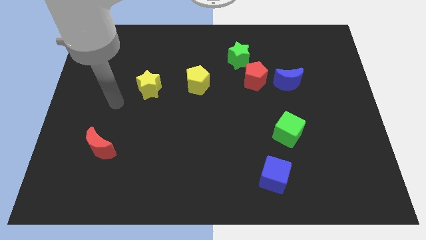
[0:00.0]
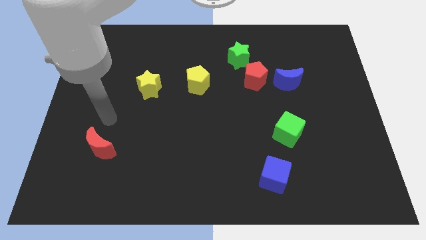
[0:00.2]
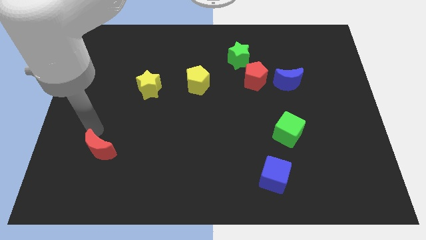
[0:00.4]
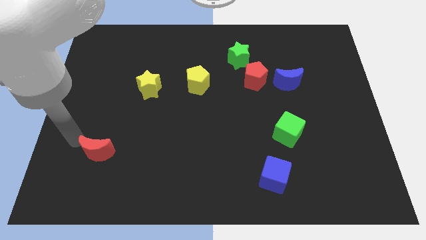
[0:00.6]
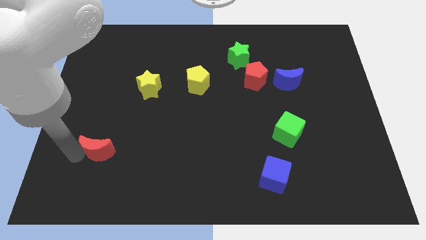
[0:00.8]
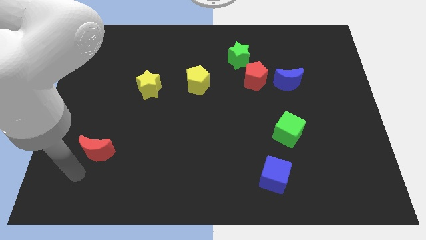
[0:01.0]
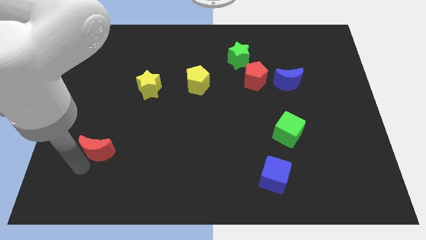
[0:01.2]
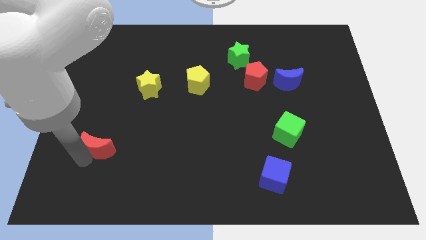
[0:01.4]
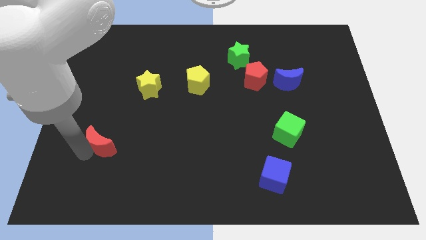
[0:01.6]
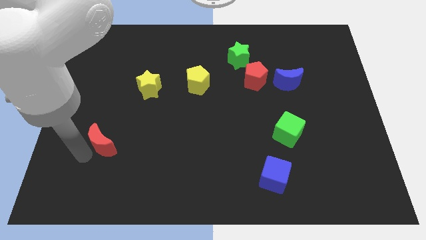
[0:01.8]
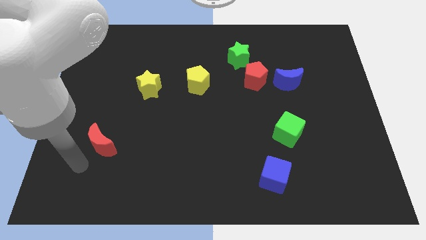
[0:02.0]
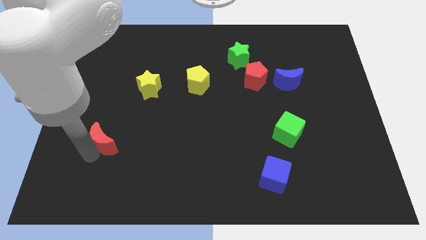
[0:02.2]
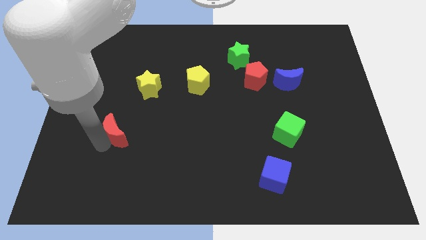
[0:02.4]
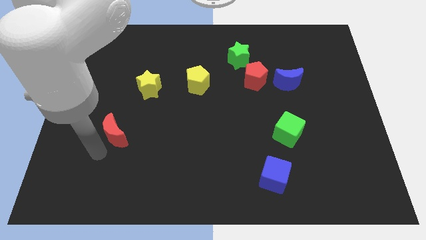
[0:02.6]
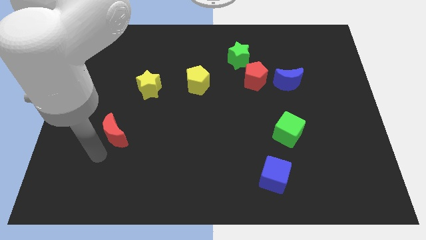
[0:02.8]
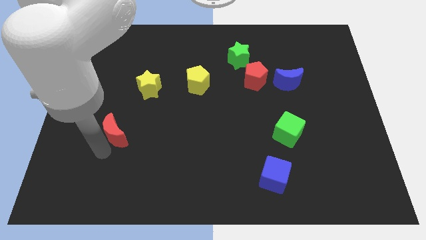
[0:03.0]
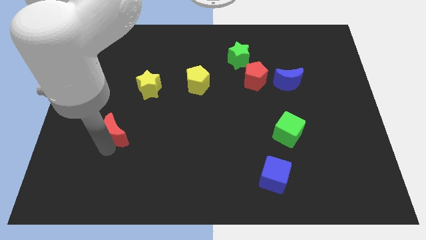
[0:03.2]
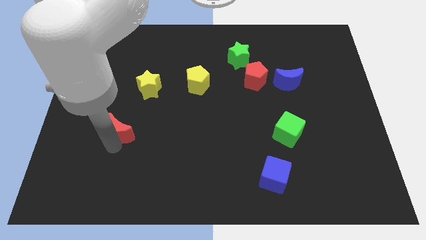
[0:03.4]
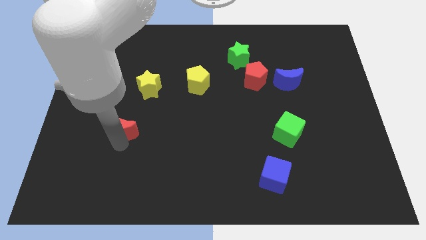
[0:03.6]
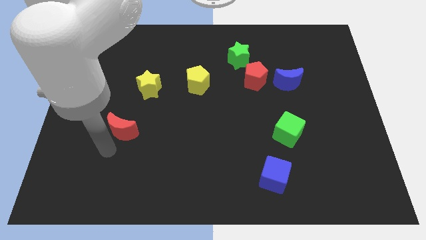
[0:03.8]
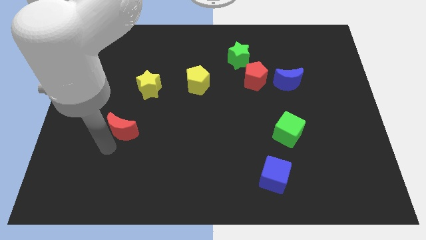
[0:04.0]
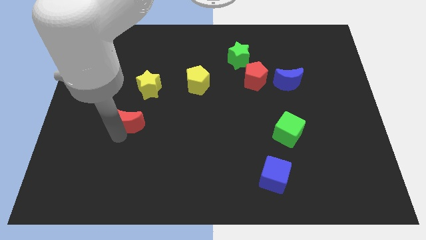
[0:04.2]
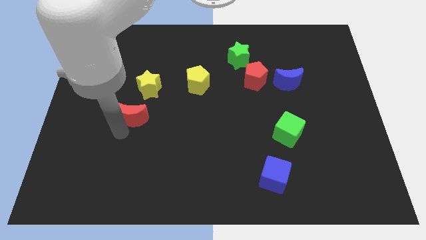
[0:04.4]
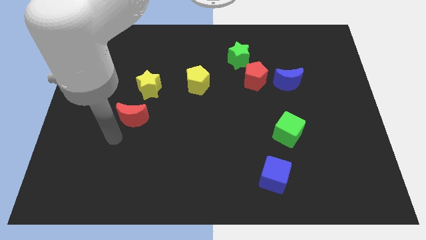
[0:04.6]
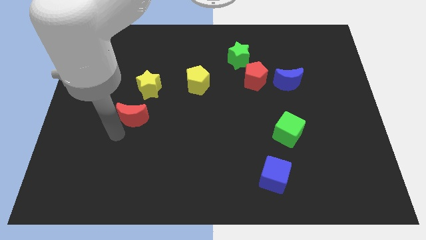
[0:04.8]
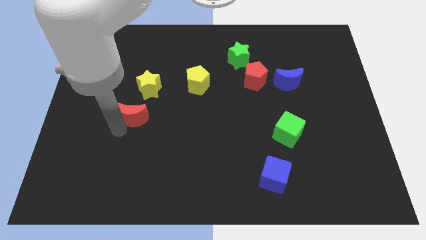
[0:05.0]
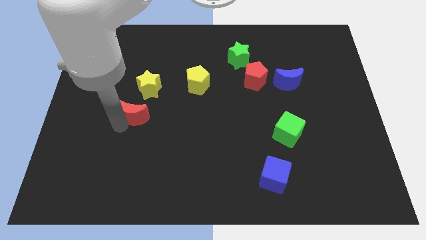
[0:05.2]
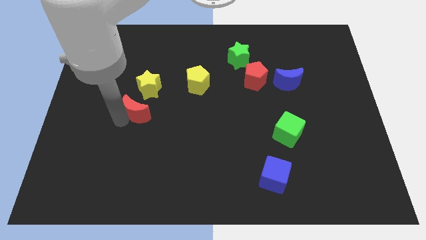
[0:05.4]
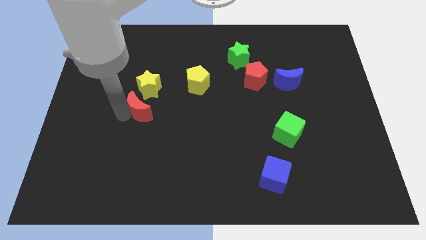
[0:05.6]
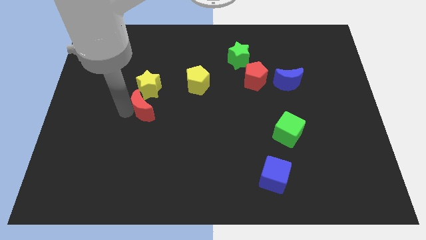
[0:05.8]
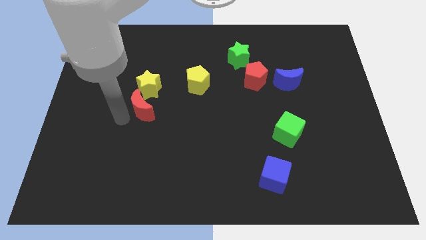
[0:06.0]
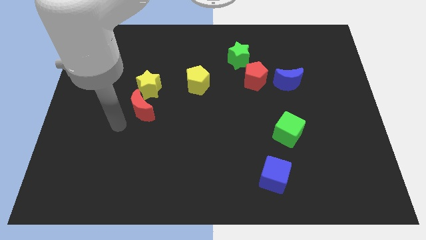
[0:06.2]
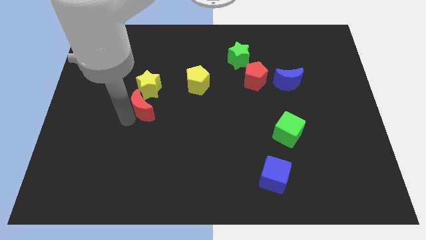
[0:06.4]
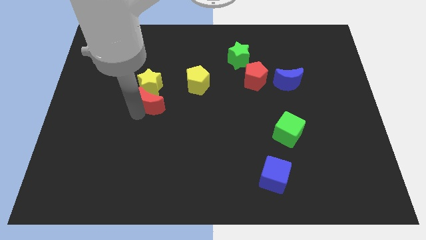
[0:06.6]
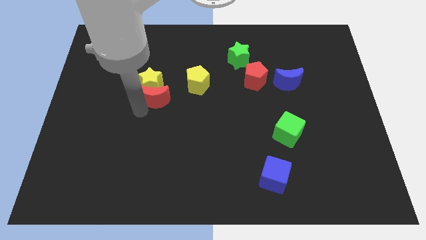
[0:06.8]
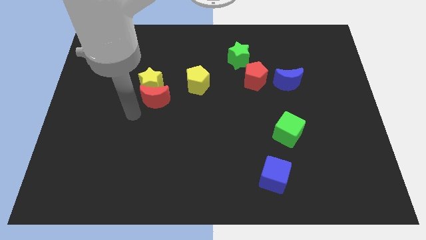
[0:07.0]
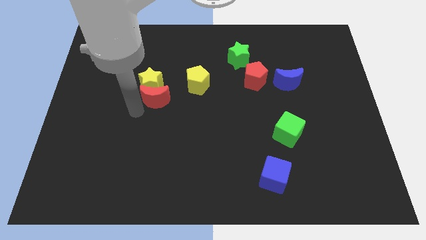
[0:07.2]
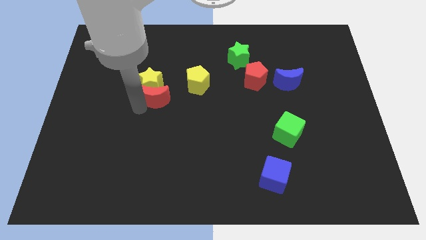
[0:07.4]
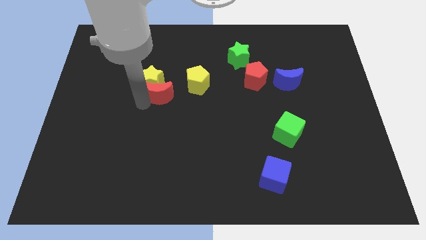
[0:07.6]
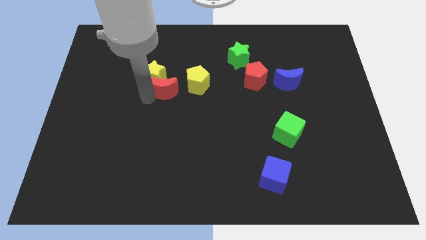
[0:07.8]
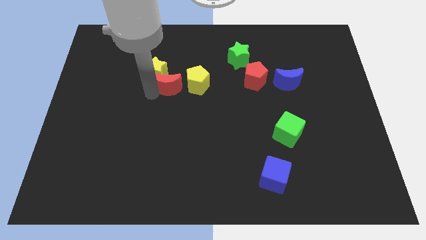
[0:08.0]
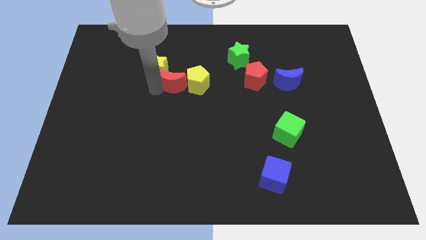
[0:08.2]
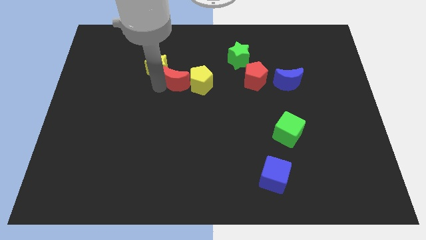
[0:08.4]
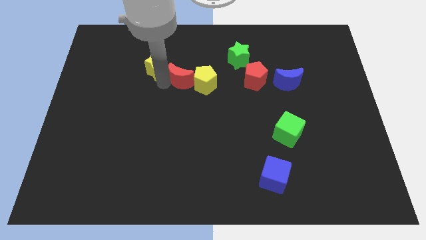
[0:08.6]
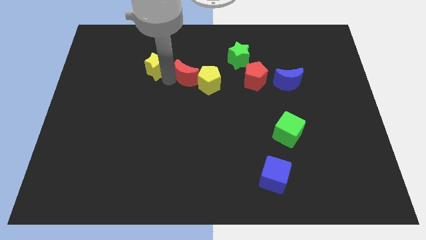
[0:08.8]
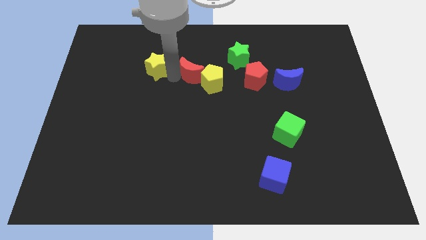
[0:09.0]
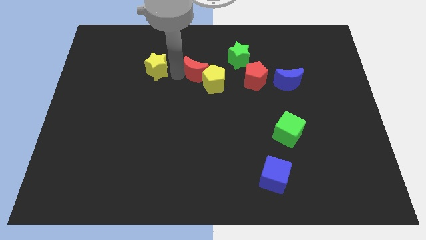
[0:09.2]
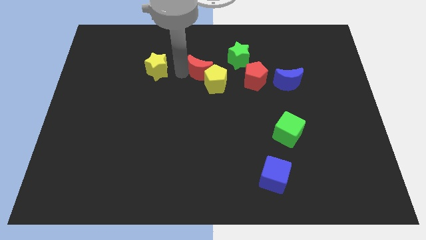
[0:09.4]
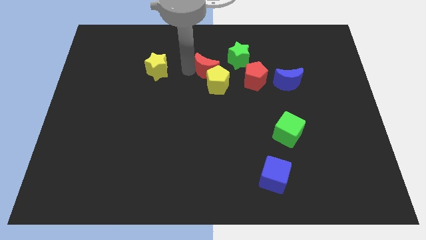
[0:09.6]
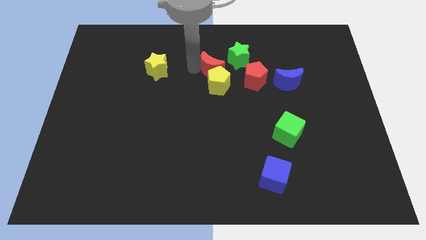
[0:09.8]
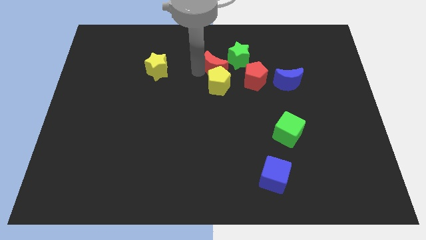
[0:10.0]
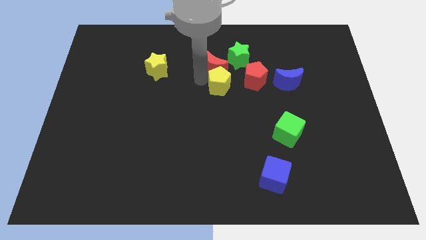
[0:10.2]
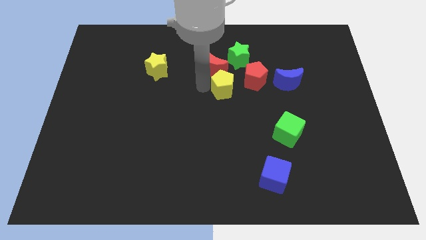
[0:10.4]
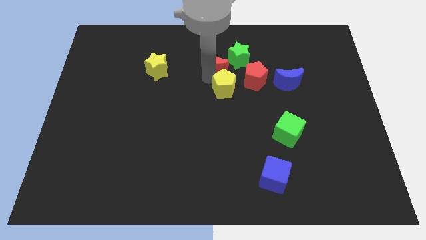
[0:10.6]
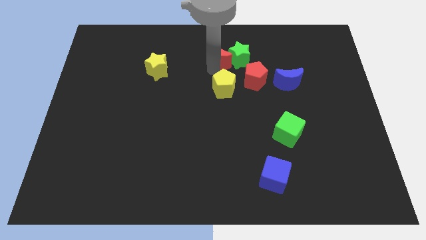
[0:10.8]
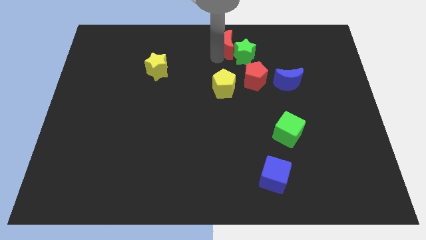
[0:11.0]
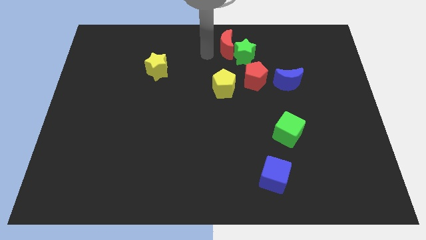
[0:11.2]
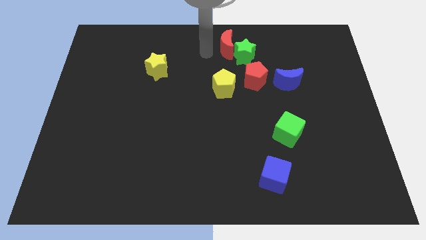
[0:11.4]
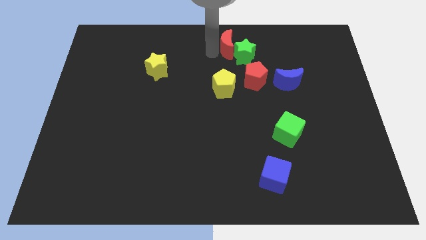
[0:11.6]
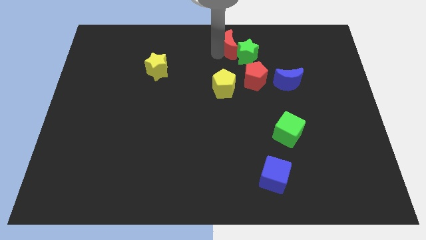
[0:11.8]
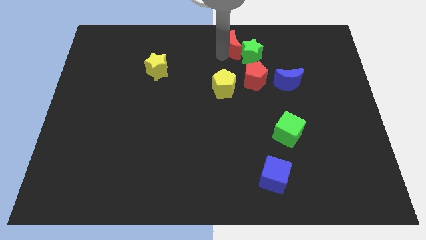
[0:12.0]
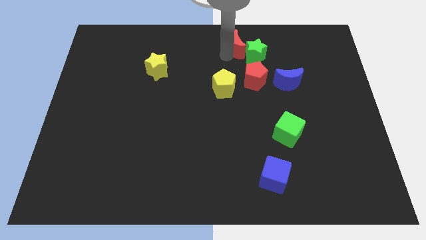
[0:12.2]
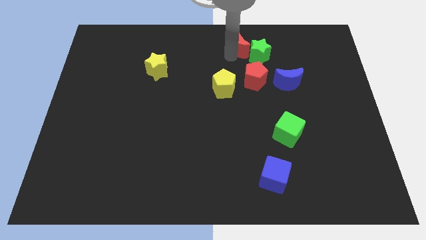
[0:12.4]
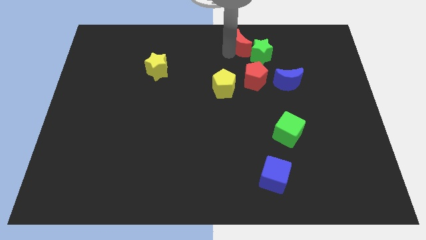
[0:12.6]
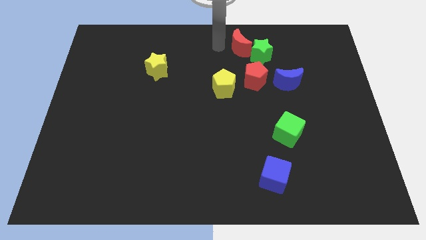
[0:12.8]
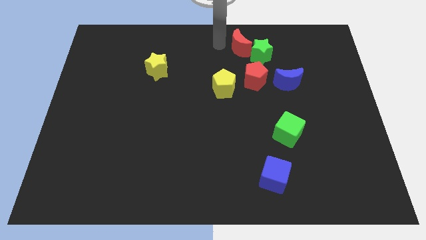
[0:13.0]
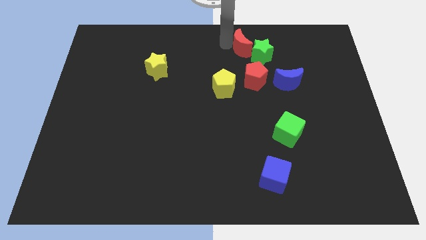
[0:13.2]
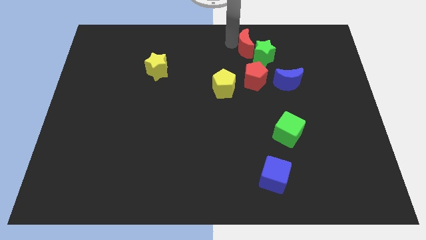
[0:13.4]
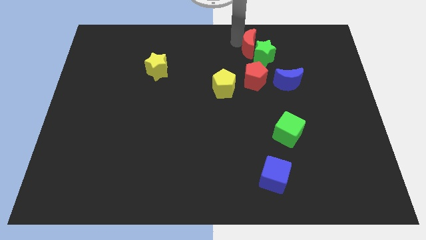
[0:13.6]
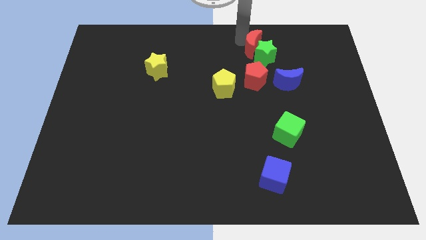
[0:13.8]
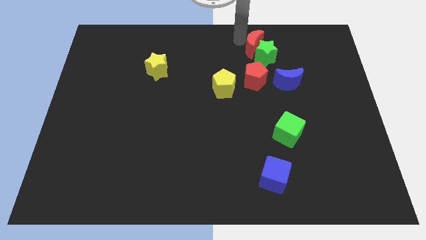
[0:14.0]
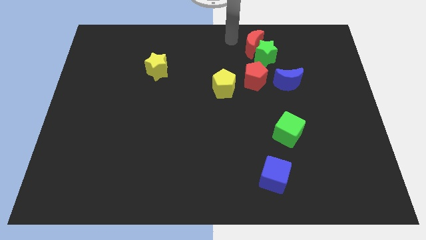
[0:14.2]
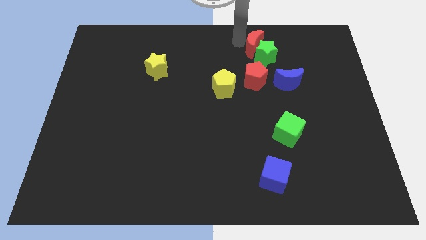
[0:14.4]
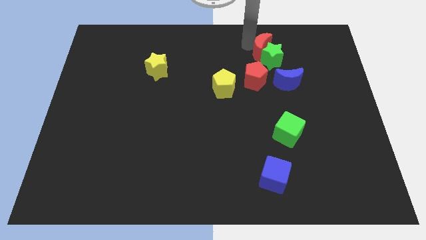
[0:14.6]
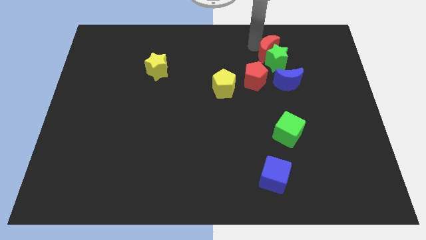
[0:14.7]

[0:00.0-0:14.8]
put the red moon diagonally up and to the right of the red pentagon
